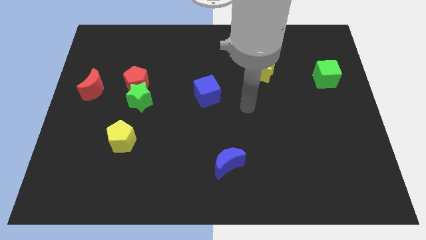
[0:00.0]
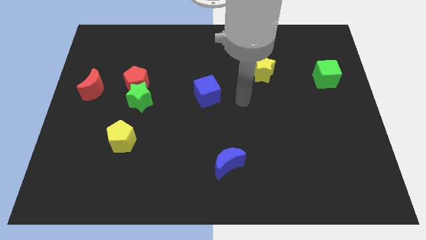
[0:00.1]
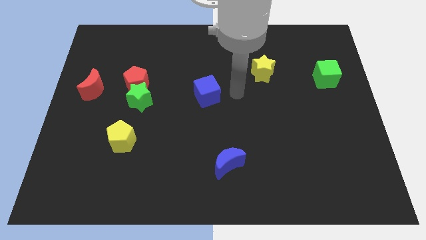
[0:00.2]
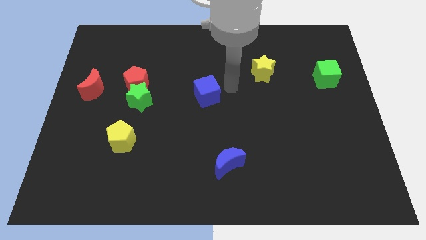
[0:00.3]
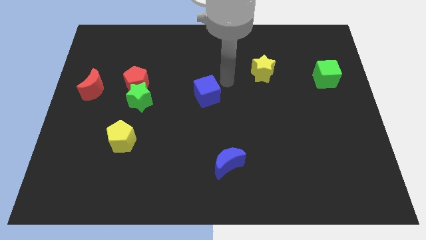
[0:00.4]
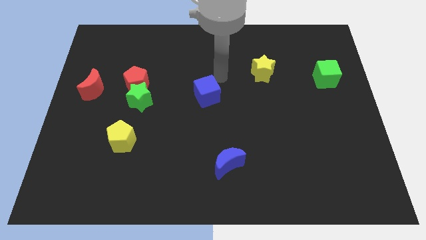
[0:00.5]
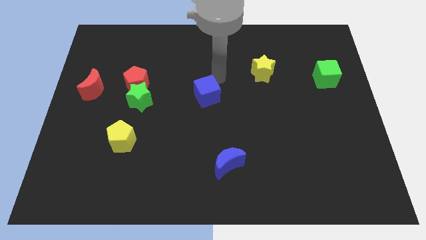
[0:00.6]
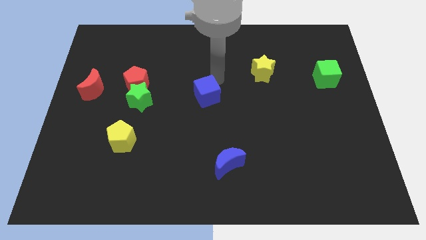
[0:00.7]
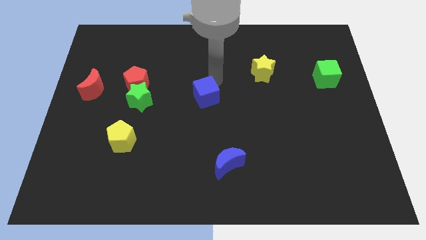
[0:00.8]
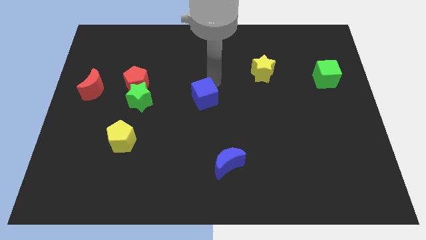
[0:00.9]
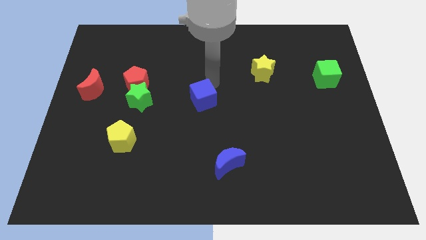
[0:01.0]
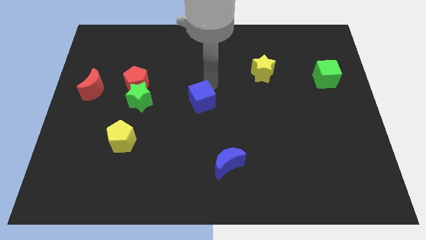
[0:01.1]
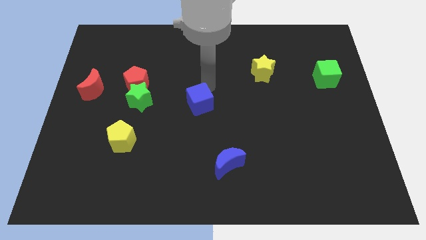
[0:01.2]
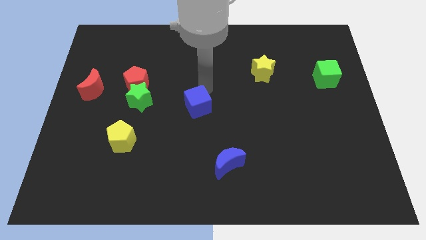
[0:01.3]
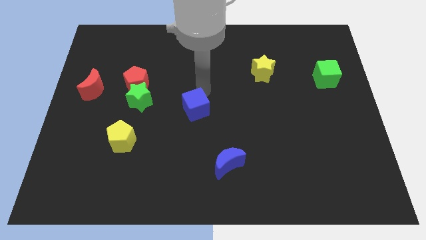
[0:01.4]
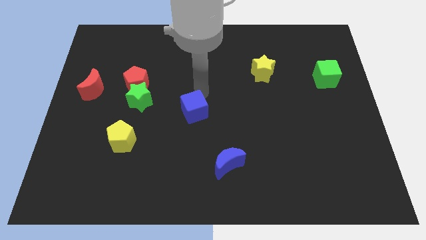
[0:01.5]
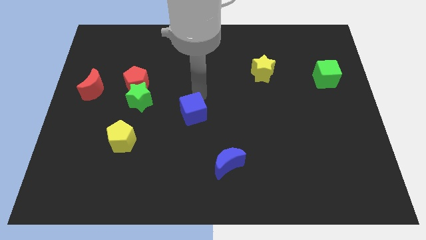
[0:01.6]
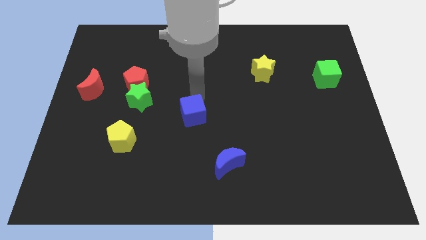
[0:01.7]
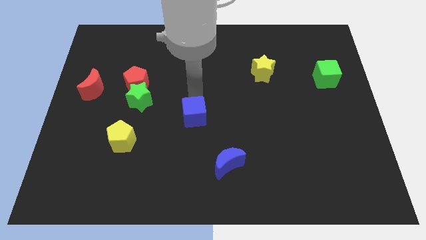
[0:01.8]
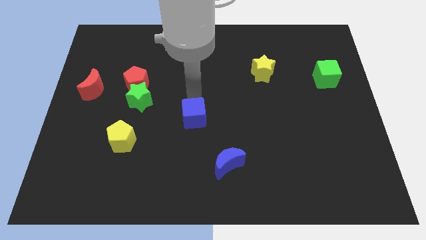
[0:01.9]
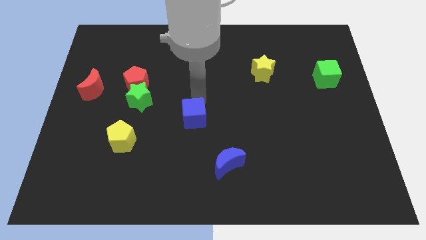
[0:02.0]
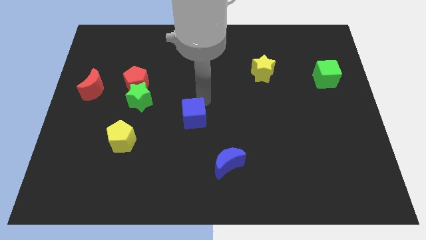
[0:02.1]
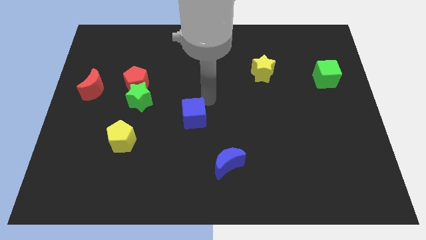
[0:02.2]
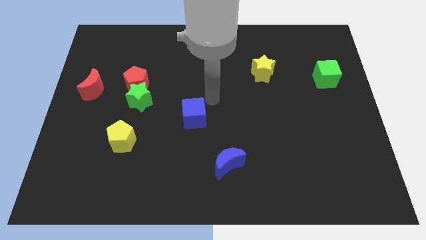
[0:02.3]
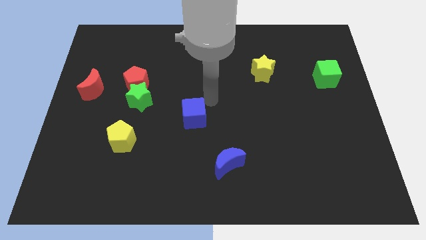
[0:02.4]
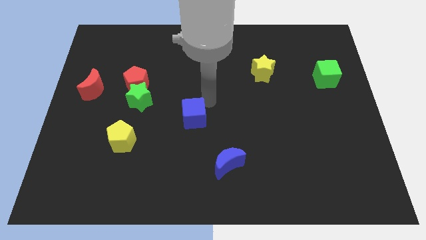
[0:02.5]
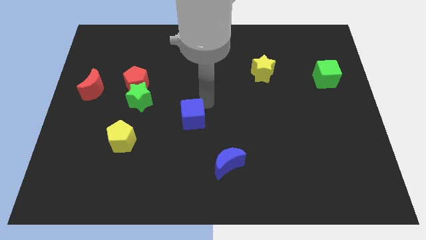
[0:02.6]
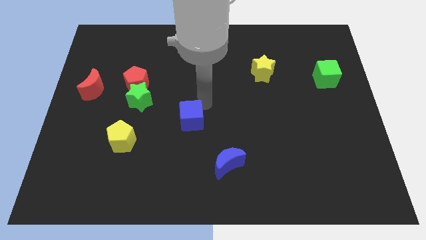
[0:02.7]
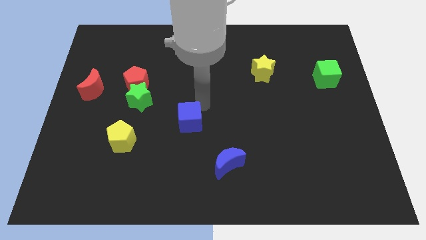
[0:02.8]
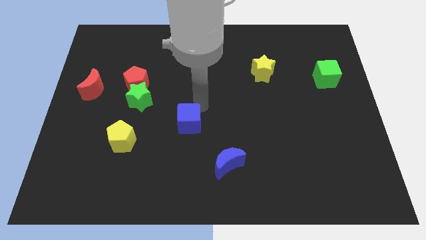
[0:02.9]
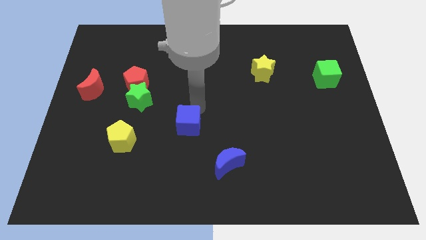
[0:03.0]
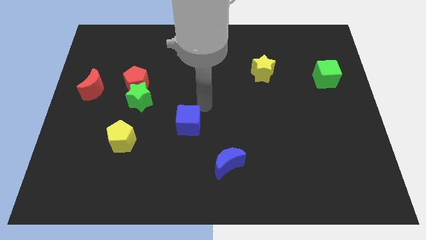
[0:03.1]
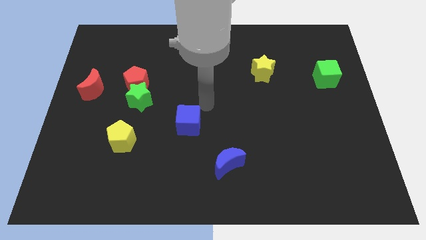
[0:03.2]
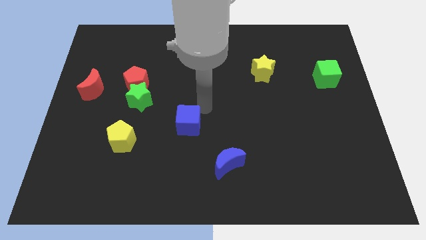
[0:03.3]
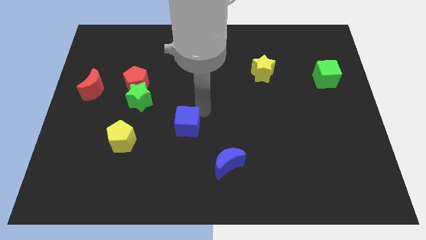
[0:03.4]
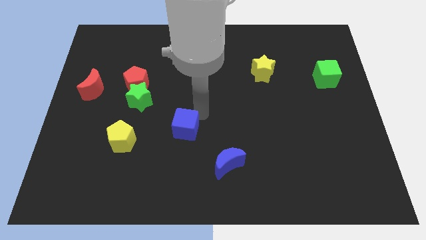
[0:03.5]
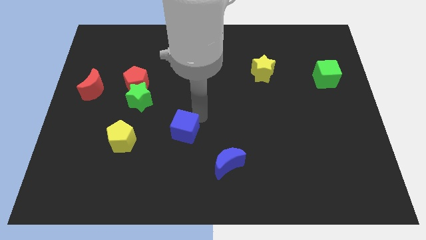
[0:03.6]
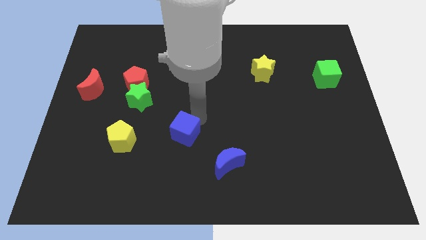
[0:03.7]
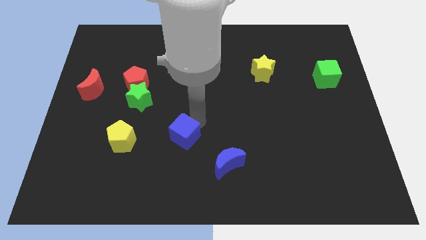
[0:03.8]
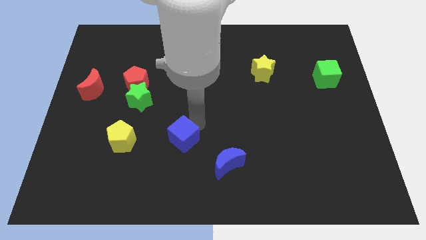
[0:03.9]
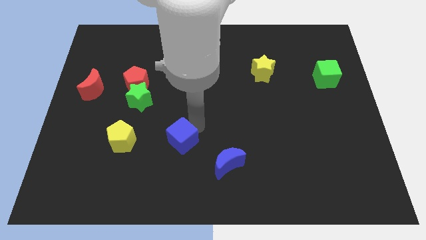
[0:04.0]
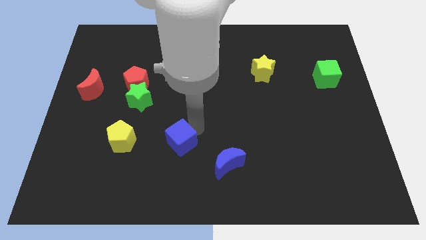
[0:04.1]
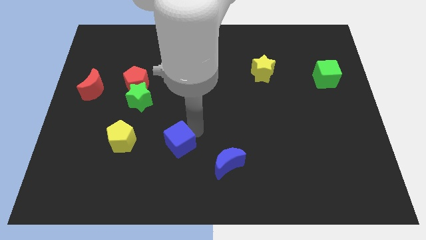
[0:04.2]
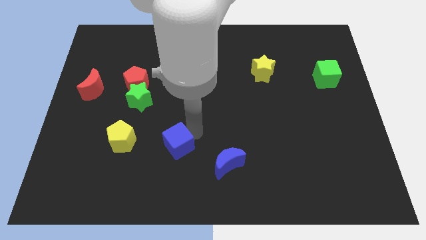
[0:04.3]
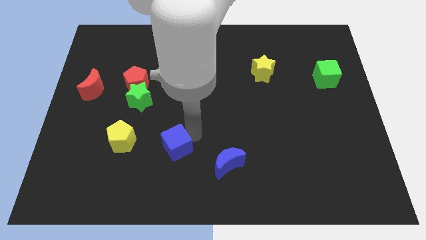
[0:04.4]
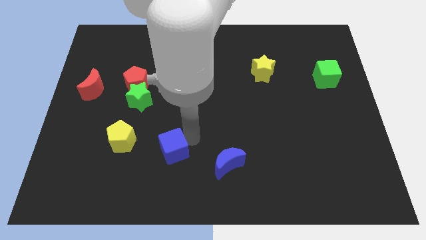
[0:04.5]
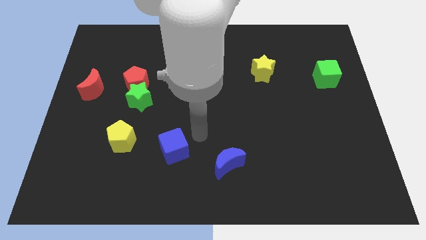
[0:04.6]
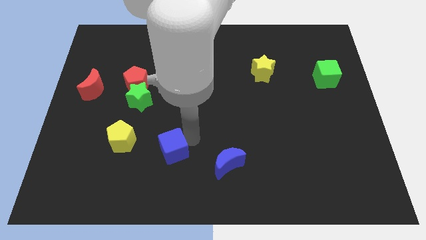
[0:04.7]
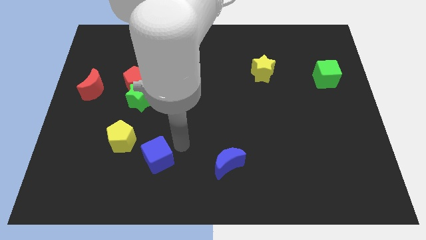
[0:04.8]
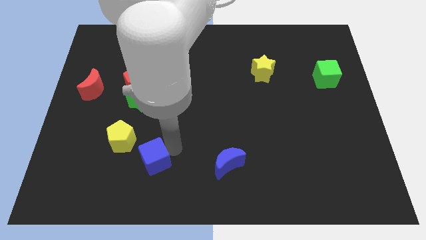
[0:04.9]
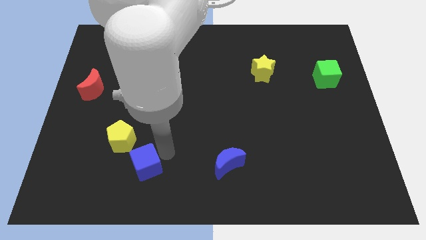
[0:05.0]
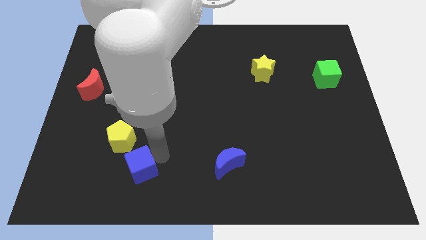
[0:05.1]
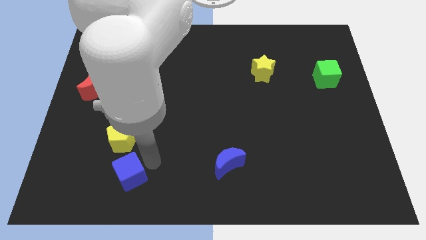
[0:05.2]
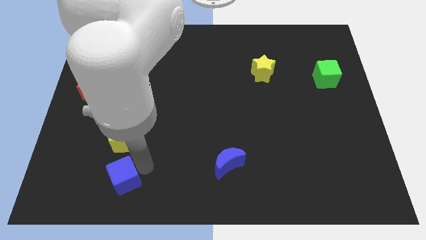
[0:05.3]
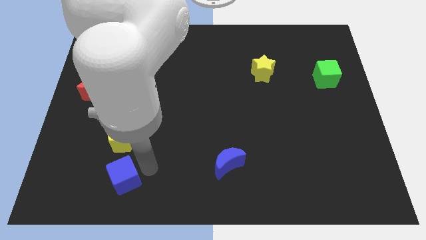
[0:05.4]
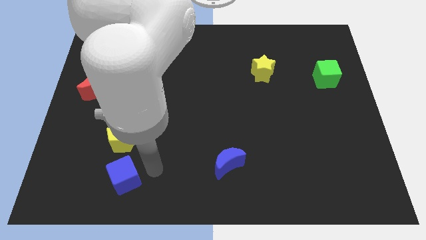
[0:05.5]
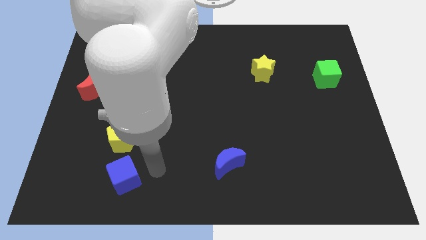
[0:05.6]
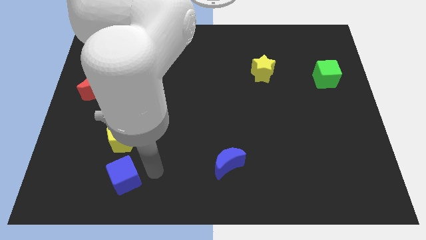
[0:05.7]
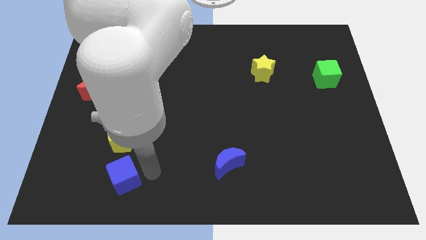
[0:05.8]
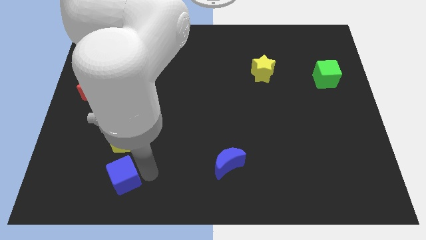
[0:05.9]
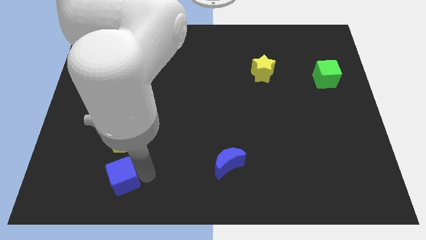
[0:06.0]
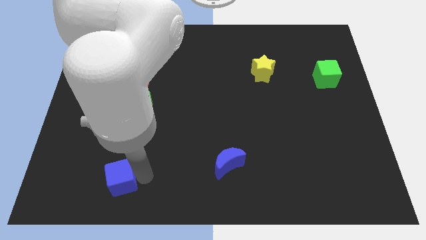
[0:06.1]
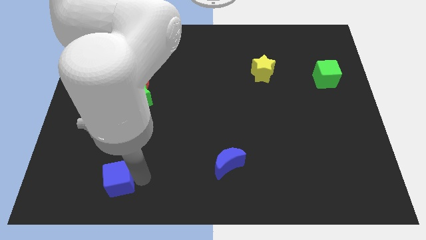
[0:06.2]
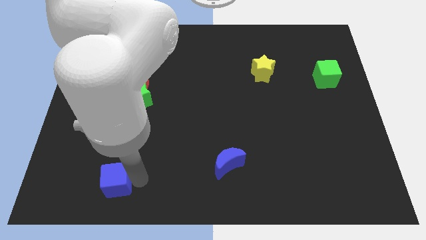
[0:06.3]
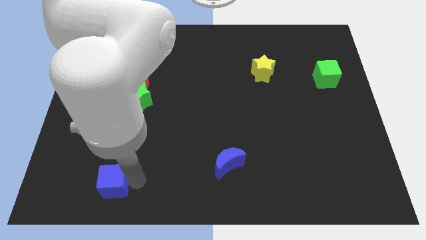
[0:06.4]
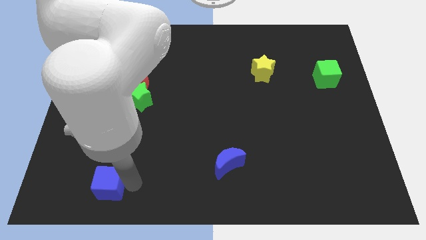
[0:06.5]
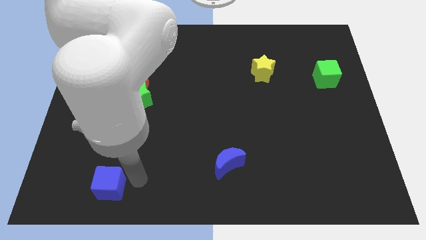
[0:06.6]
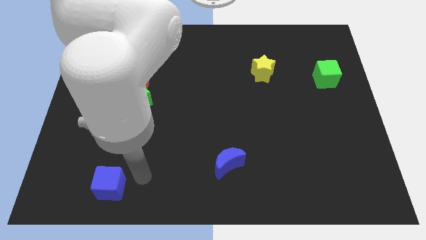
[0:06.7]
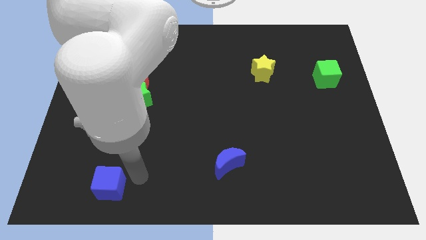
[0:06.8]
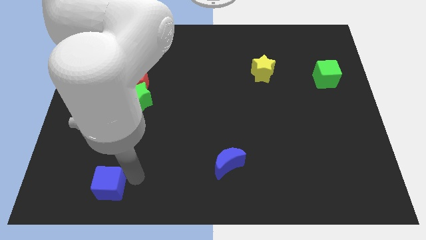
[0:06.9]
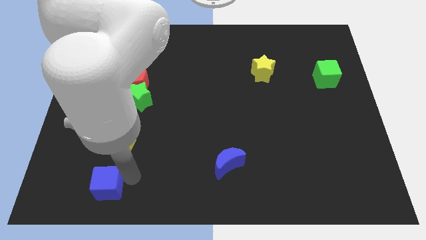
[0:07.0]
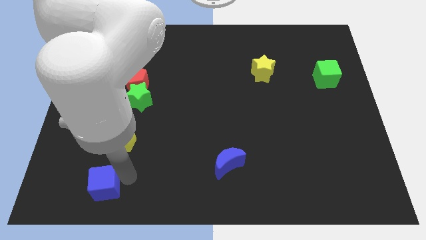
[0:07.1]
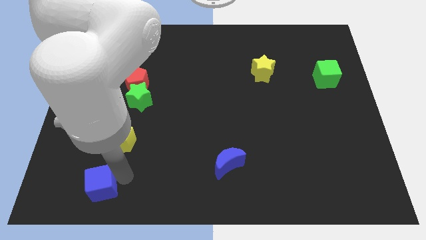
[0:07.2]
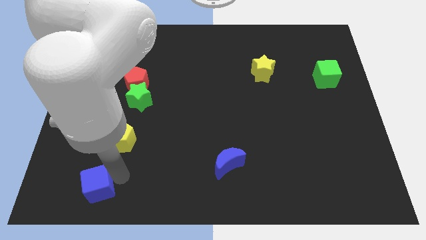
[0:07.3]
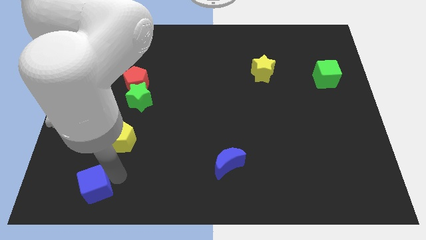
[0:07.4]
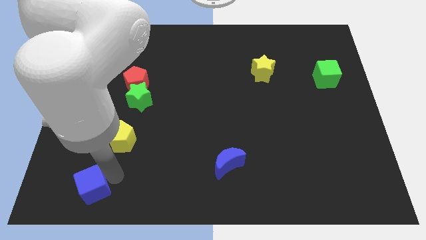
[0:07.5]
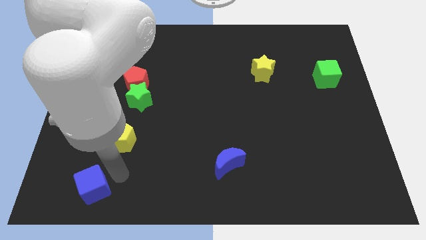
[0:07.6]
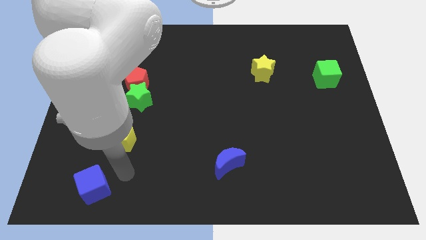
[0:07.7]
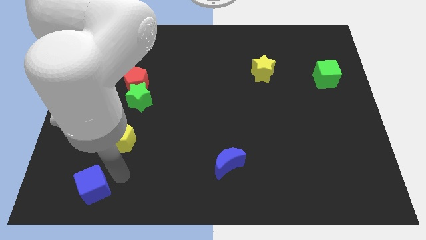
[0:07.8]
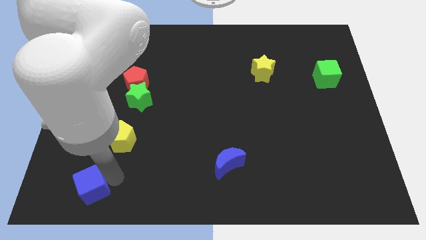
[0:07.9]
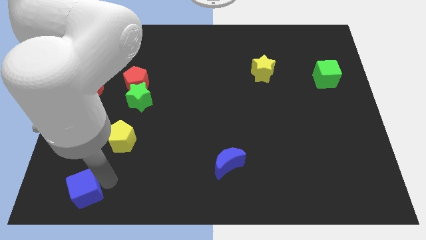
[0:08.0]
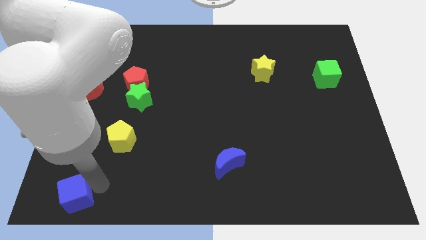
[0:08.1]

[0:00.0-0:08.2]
slide the blue cube to the lower left corner
